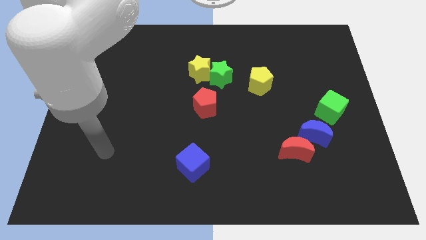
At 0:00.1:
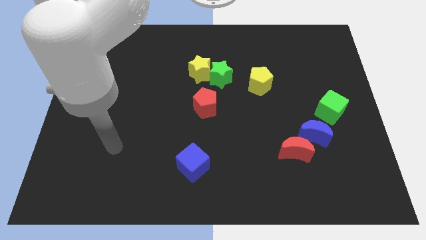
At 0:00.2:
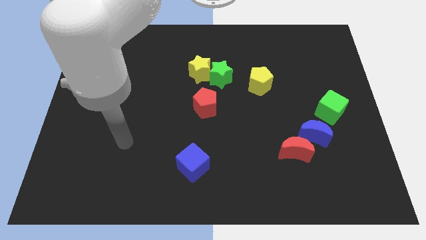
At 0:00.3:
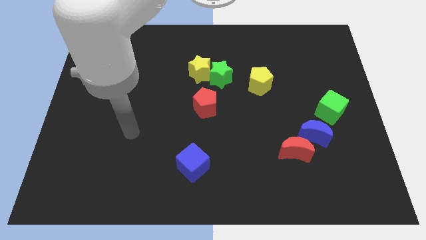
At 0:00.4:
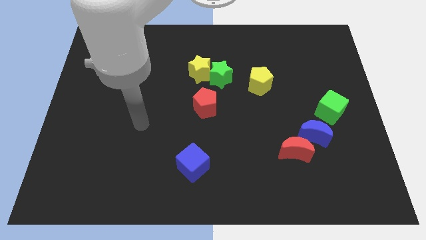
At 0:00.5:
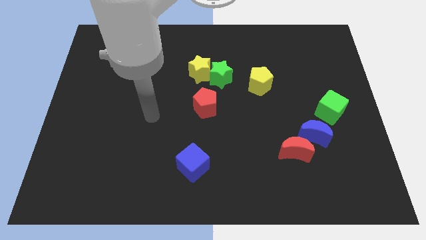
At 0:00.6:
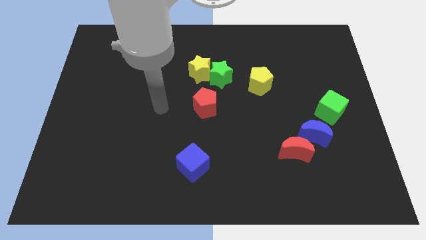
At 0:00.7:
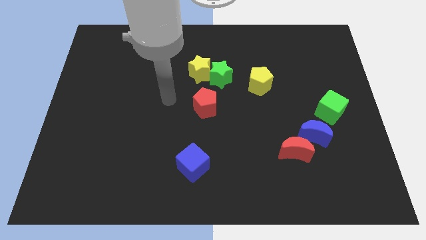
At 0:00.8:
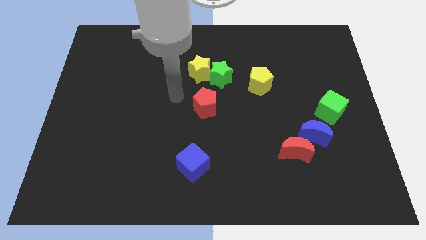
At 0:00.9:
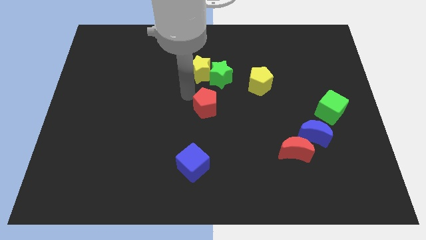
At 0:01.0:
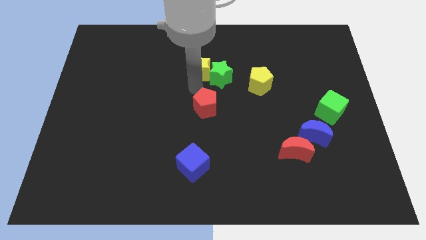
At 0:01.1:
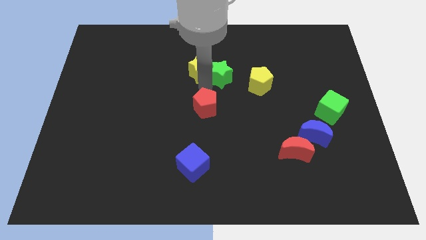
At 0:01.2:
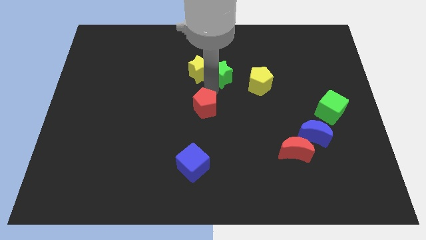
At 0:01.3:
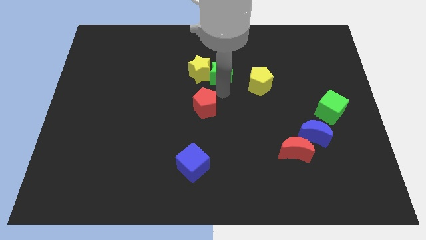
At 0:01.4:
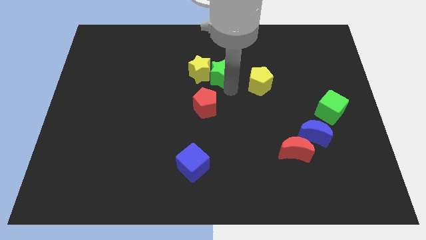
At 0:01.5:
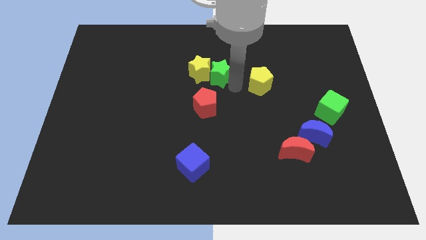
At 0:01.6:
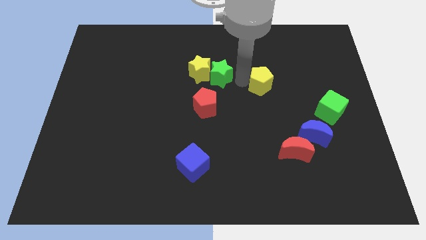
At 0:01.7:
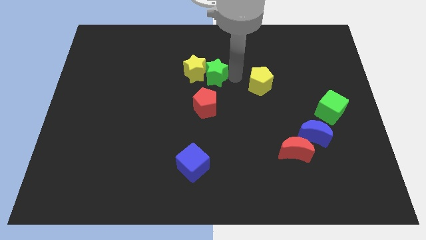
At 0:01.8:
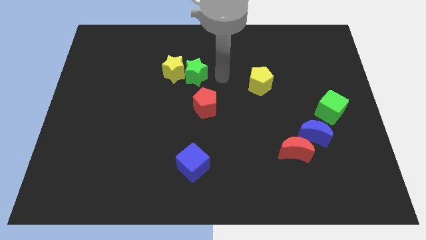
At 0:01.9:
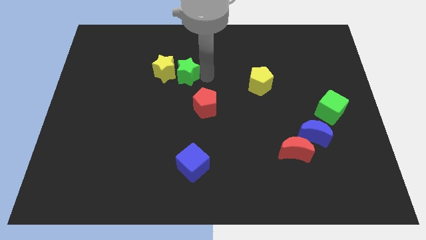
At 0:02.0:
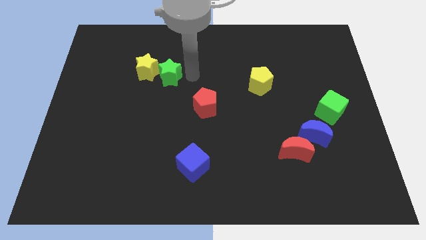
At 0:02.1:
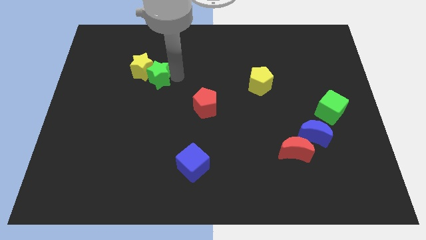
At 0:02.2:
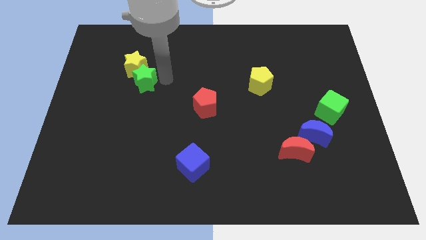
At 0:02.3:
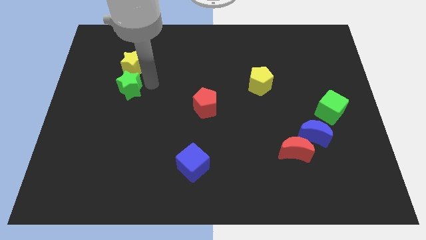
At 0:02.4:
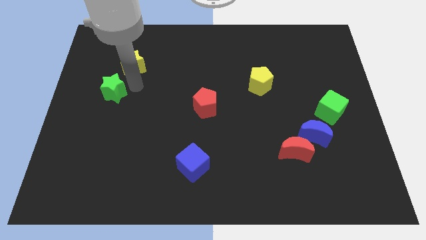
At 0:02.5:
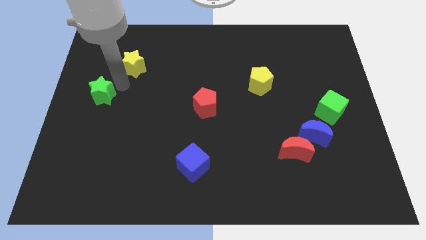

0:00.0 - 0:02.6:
pull the yellow star apart from the green star

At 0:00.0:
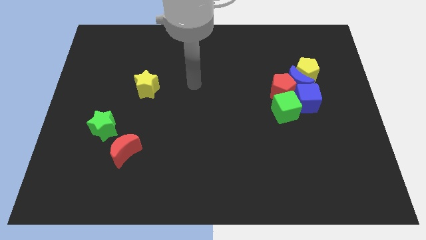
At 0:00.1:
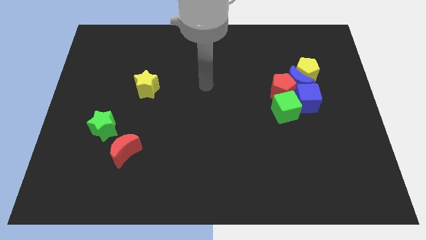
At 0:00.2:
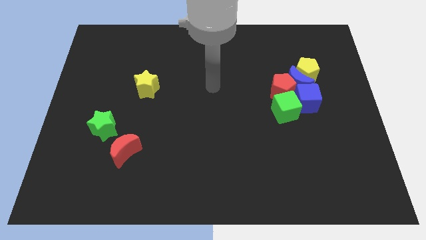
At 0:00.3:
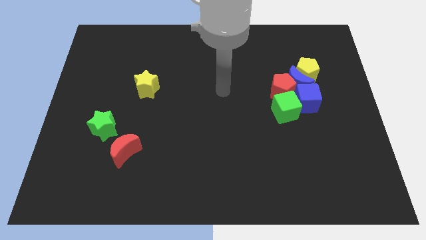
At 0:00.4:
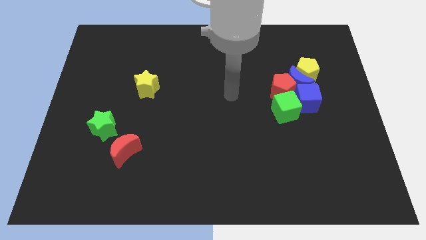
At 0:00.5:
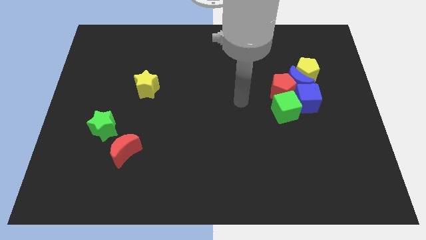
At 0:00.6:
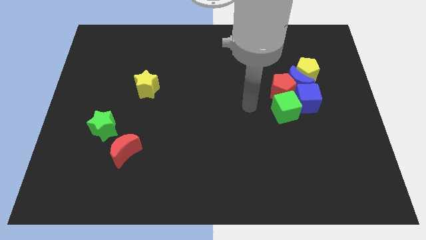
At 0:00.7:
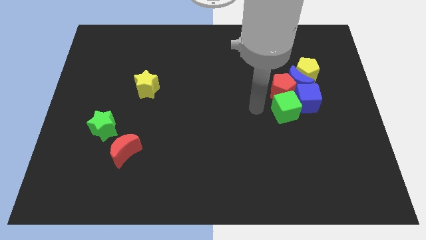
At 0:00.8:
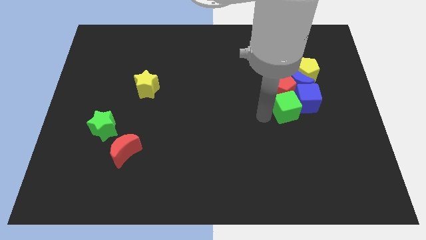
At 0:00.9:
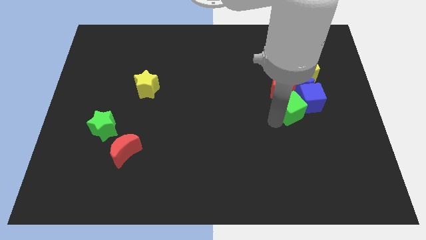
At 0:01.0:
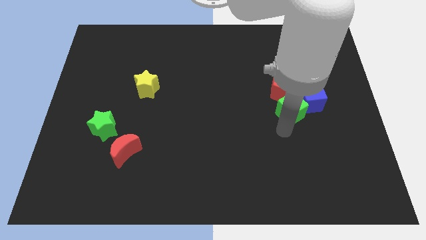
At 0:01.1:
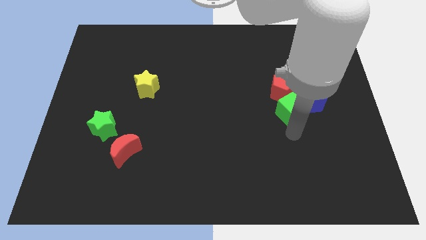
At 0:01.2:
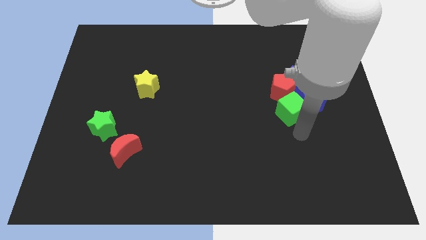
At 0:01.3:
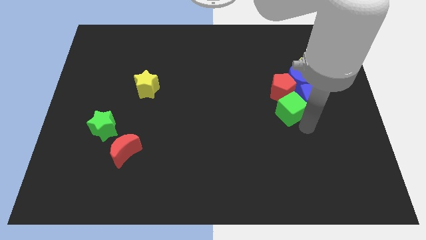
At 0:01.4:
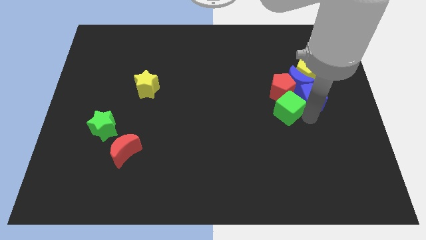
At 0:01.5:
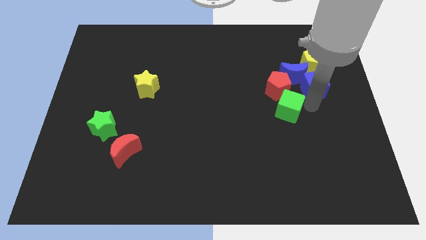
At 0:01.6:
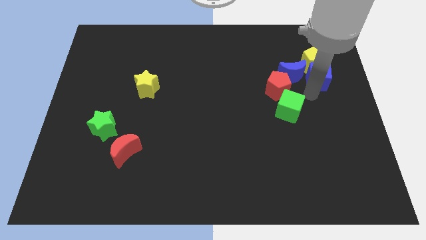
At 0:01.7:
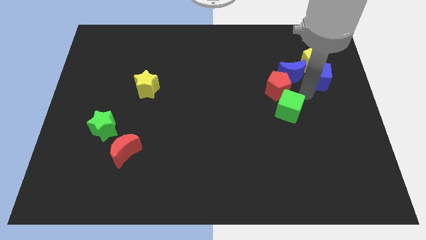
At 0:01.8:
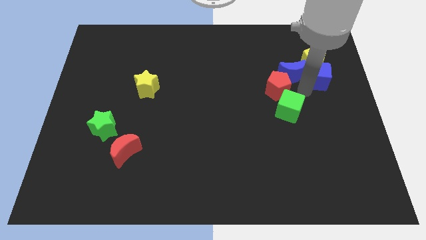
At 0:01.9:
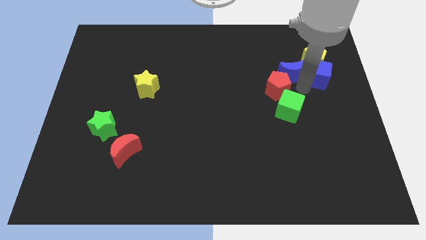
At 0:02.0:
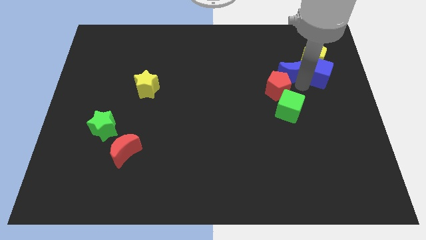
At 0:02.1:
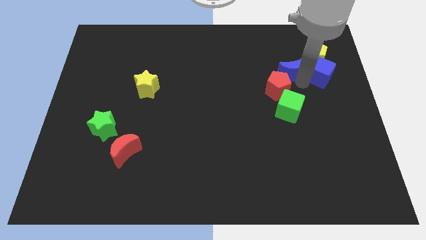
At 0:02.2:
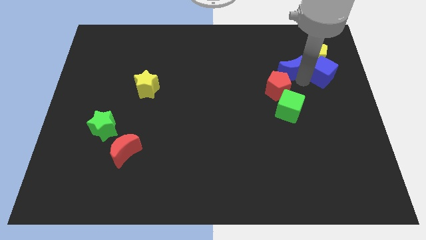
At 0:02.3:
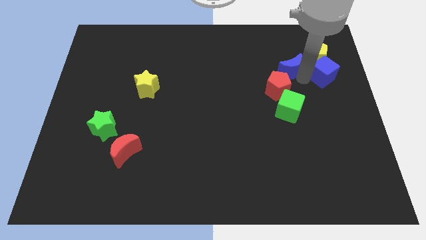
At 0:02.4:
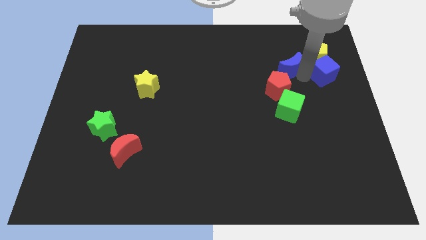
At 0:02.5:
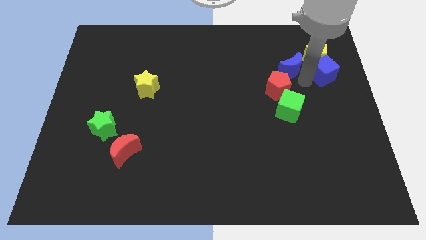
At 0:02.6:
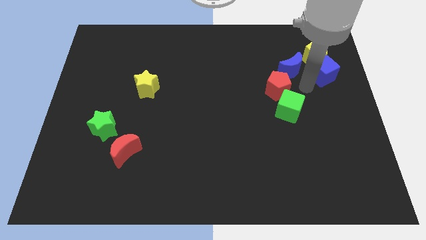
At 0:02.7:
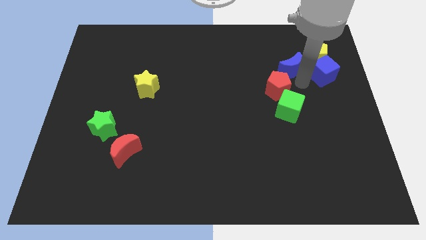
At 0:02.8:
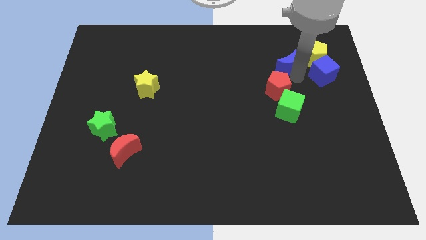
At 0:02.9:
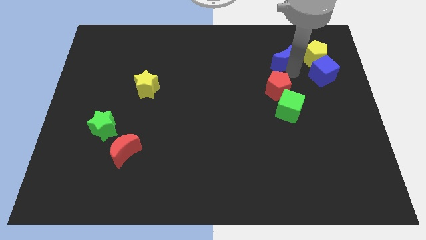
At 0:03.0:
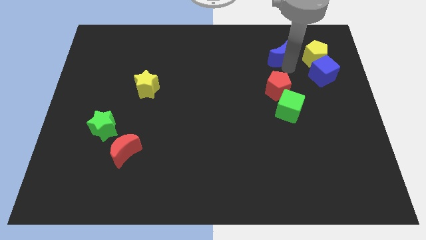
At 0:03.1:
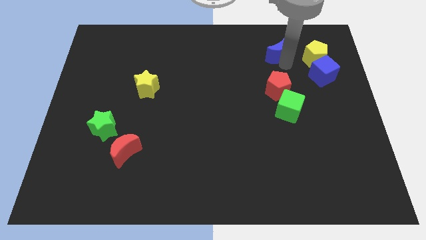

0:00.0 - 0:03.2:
move the blue moon away from the clump

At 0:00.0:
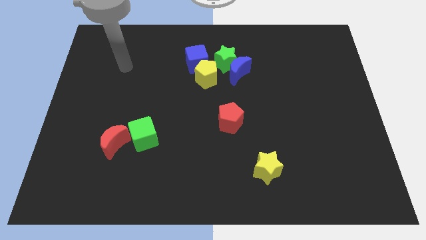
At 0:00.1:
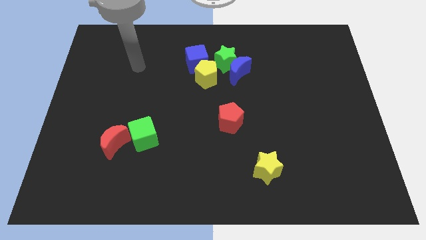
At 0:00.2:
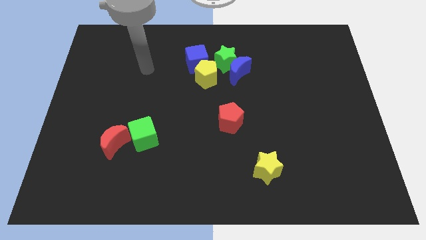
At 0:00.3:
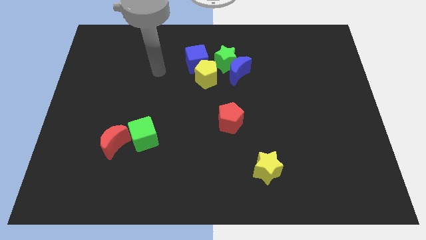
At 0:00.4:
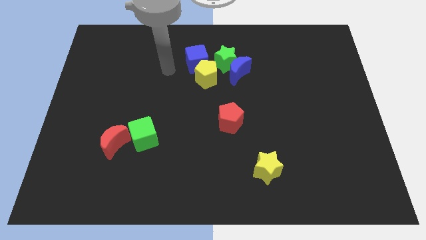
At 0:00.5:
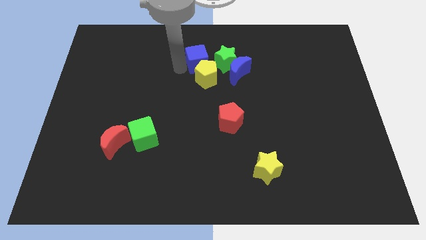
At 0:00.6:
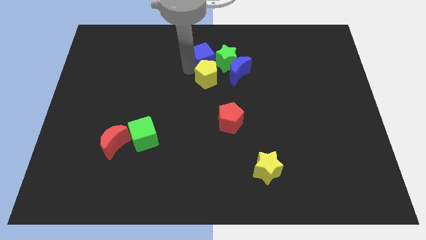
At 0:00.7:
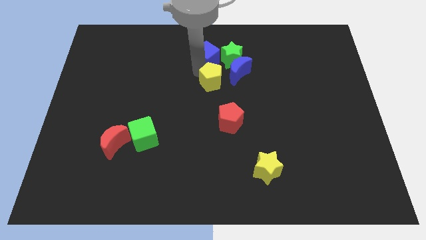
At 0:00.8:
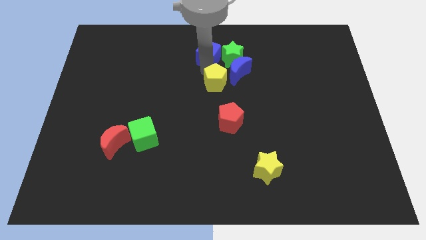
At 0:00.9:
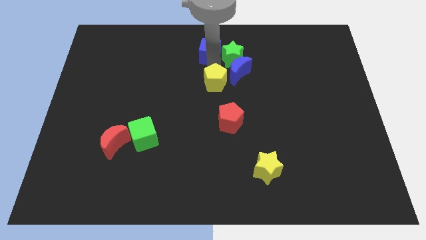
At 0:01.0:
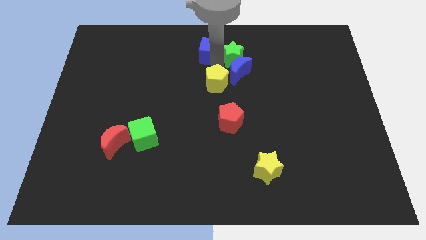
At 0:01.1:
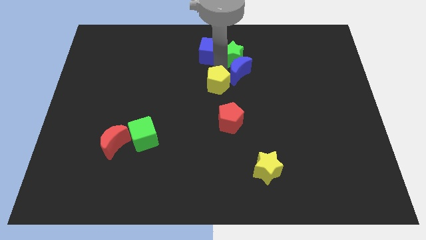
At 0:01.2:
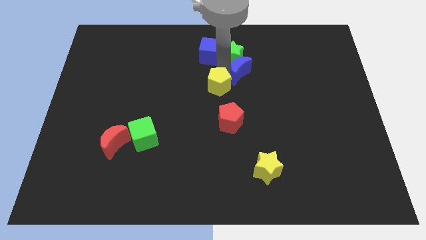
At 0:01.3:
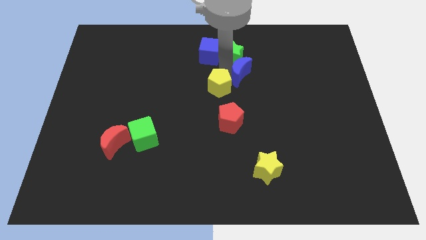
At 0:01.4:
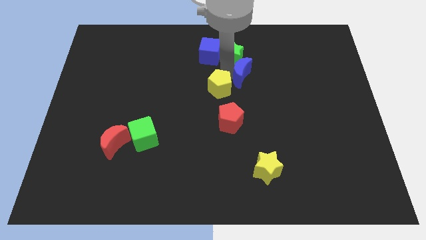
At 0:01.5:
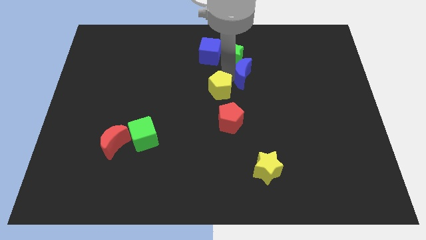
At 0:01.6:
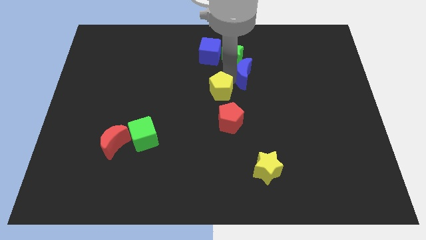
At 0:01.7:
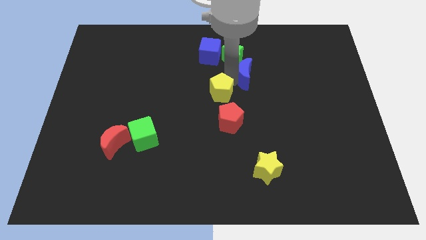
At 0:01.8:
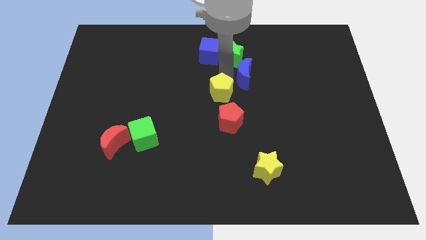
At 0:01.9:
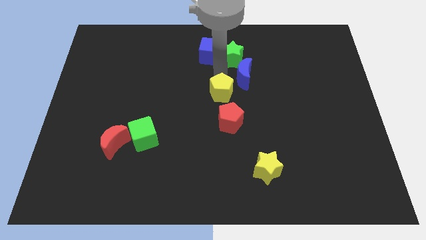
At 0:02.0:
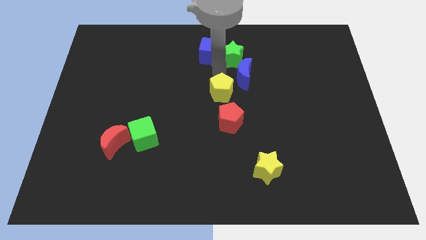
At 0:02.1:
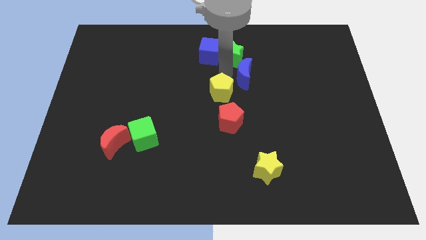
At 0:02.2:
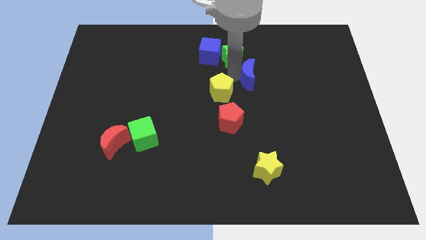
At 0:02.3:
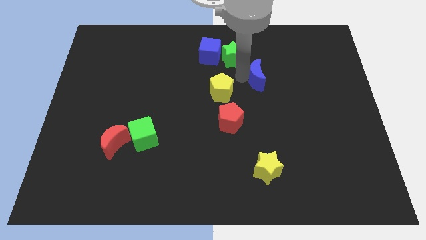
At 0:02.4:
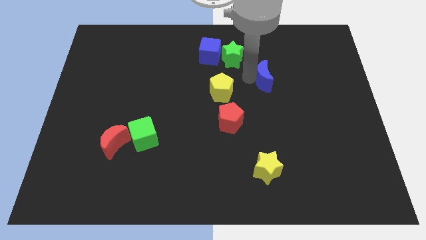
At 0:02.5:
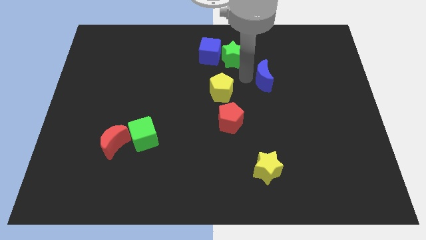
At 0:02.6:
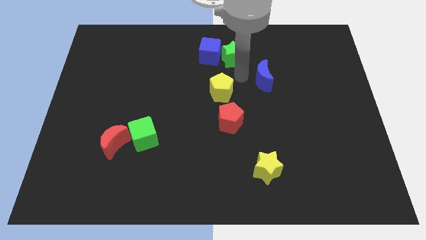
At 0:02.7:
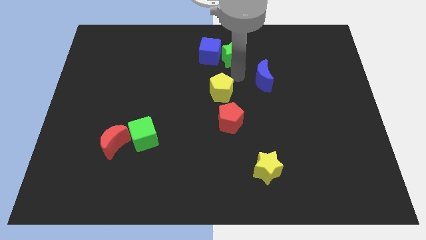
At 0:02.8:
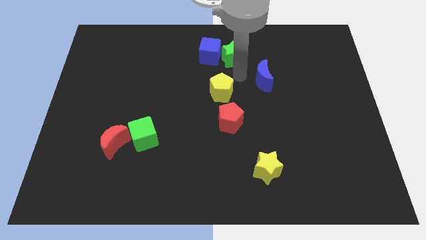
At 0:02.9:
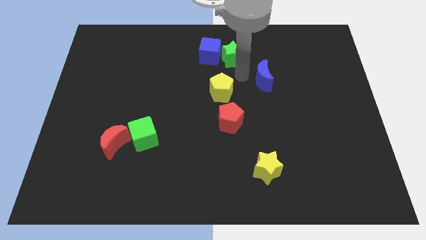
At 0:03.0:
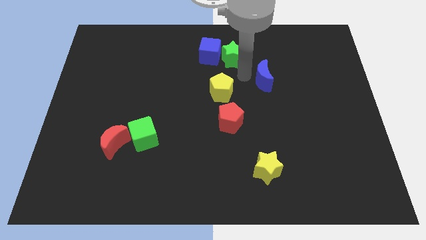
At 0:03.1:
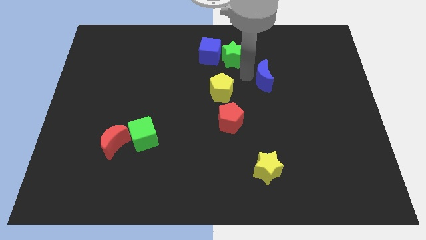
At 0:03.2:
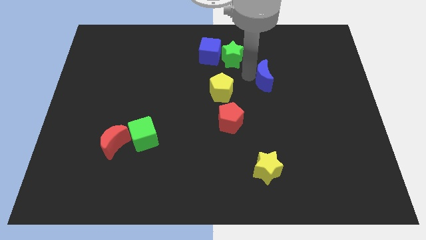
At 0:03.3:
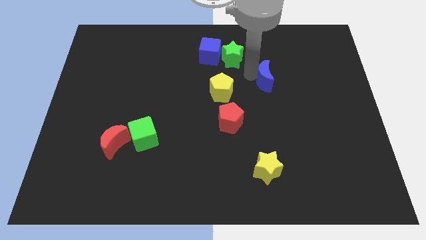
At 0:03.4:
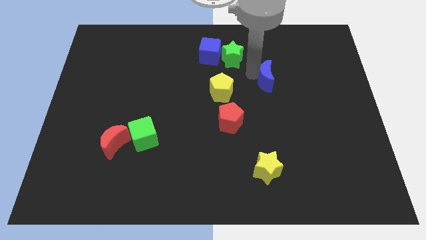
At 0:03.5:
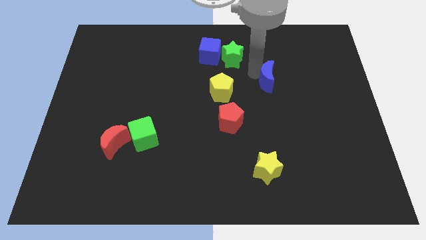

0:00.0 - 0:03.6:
separate the blue moon from the green star and yellow pentagon
